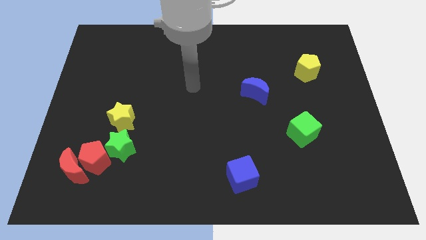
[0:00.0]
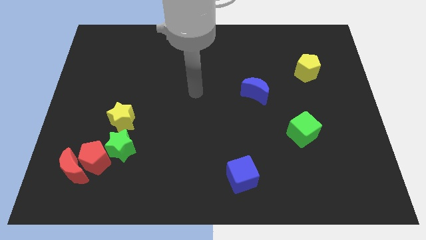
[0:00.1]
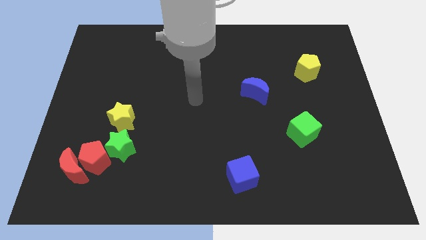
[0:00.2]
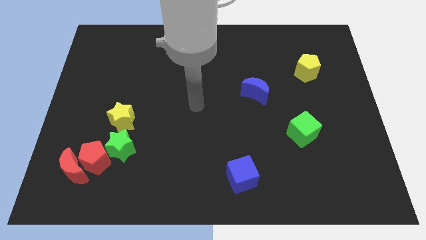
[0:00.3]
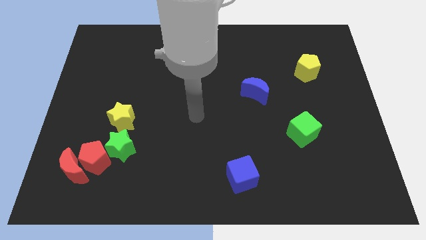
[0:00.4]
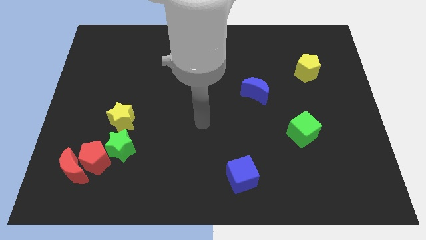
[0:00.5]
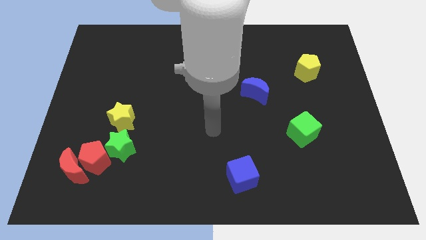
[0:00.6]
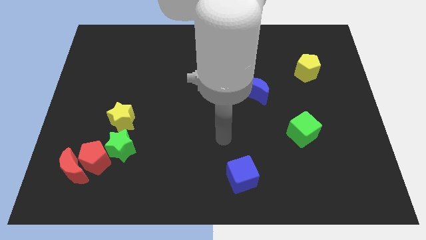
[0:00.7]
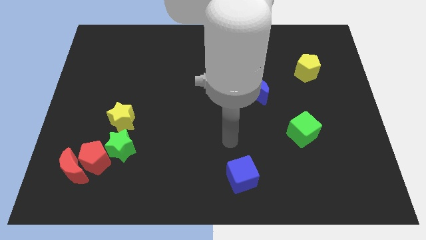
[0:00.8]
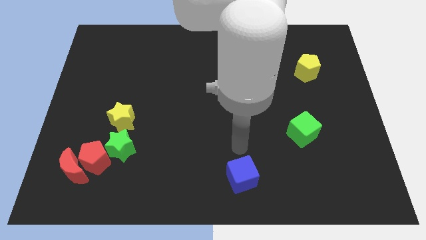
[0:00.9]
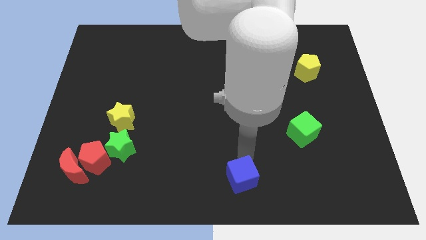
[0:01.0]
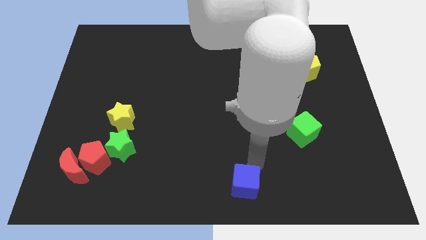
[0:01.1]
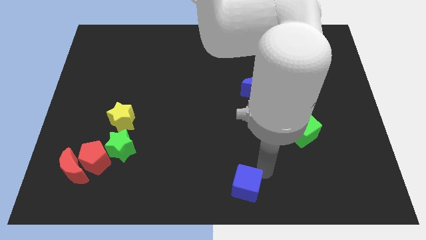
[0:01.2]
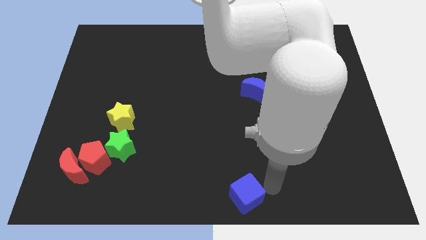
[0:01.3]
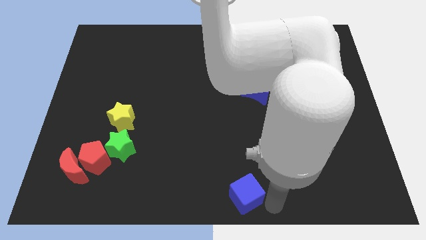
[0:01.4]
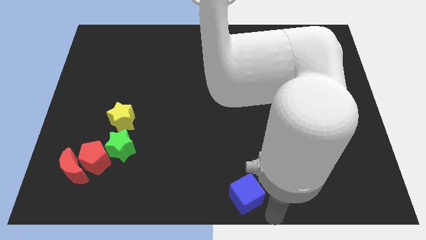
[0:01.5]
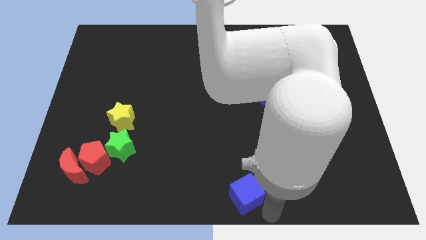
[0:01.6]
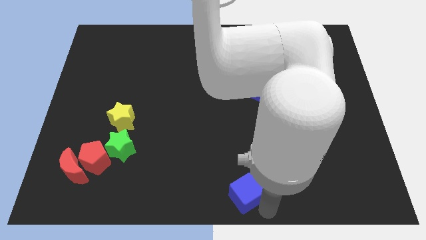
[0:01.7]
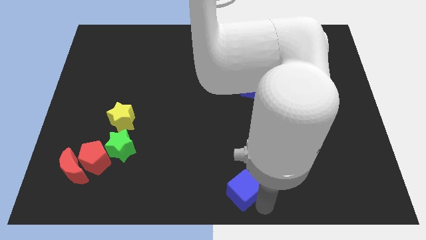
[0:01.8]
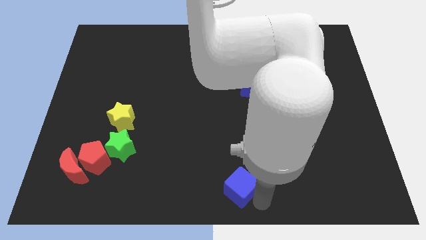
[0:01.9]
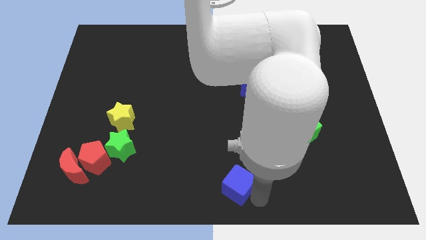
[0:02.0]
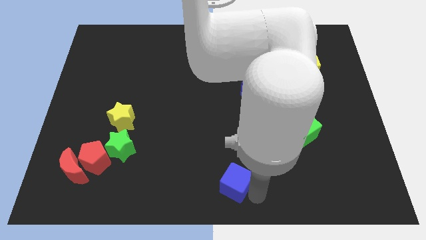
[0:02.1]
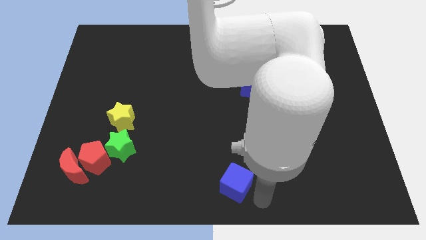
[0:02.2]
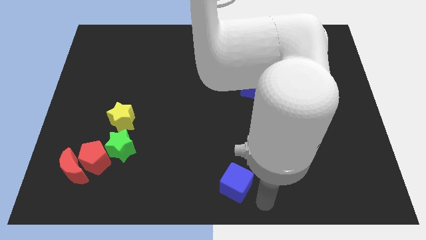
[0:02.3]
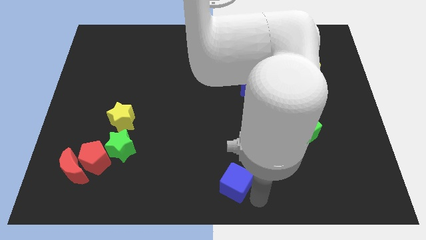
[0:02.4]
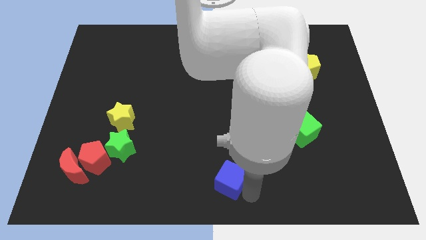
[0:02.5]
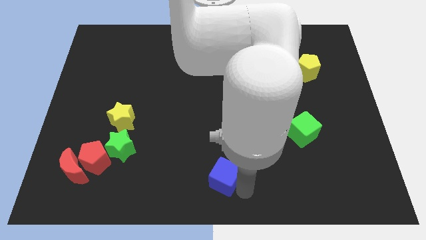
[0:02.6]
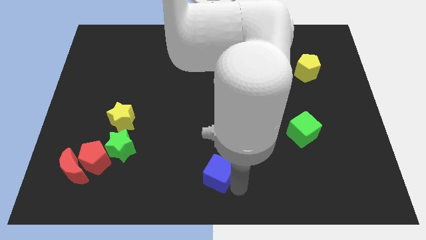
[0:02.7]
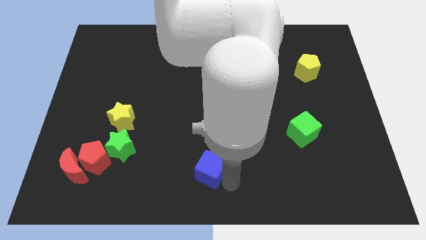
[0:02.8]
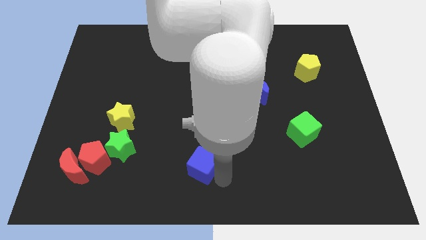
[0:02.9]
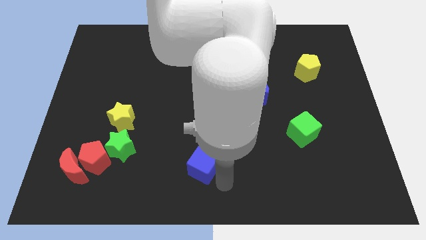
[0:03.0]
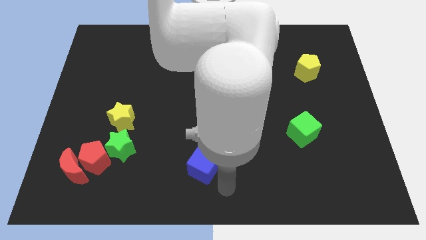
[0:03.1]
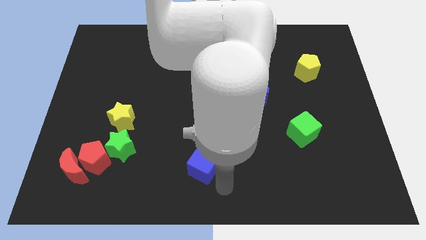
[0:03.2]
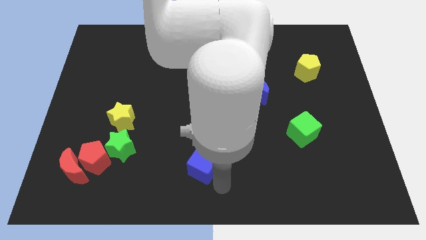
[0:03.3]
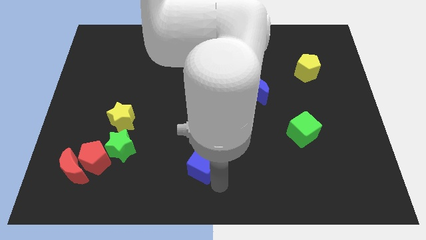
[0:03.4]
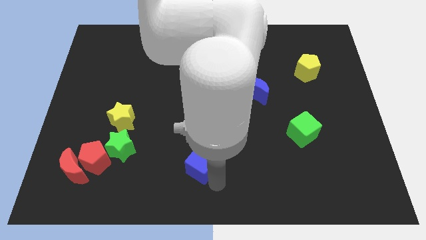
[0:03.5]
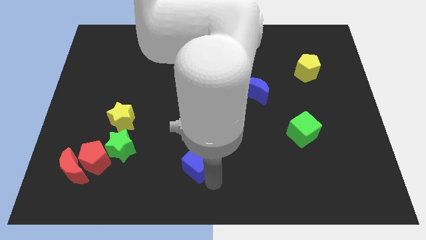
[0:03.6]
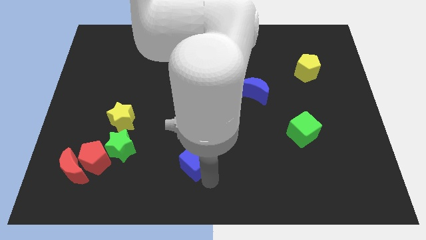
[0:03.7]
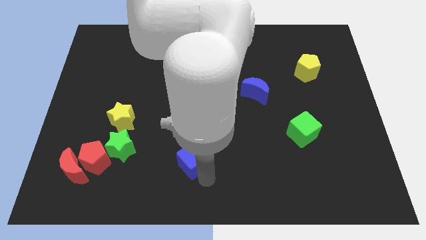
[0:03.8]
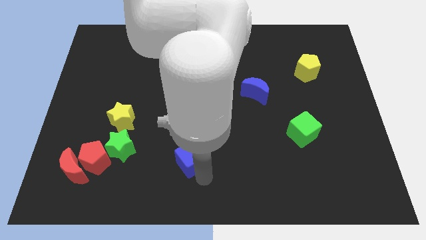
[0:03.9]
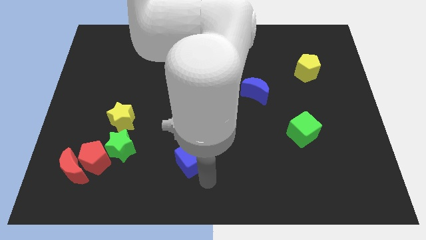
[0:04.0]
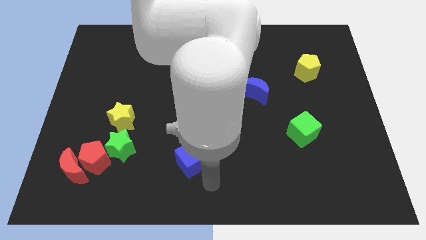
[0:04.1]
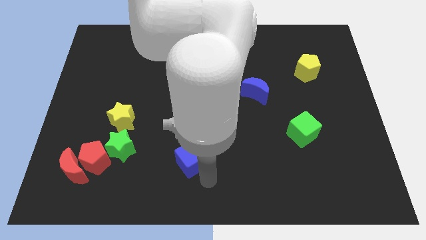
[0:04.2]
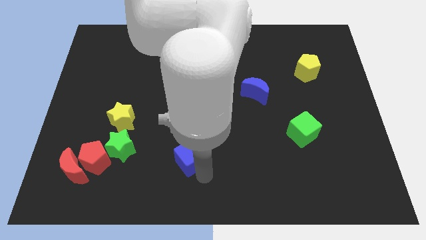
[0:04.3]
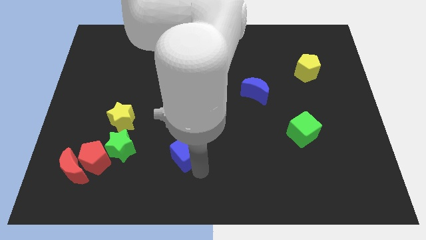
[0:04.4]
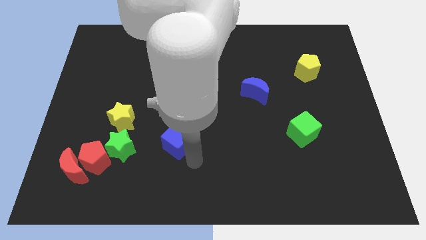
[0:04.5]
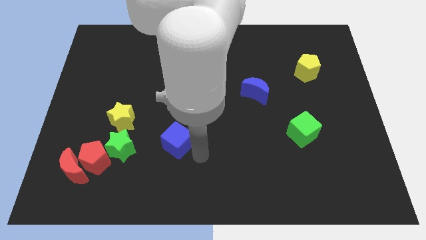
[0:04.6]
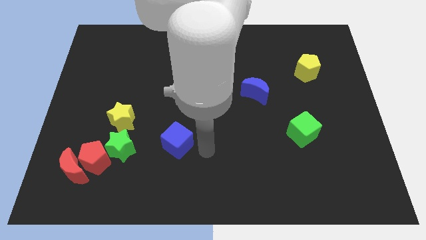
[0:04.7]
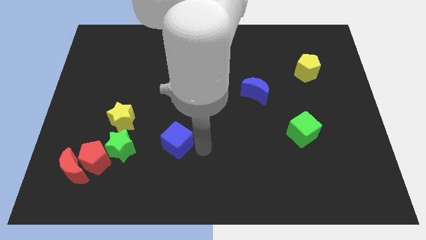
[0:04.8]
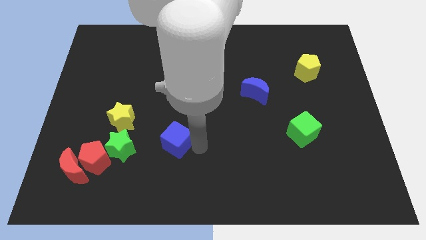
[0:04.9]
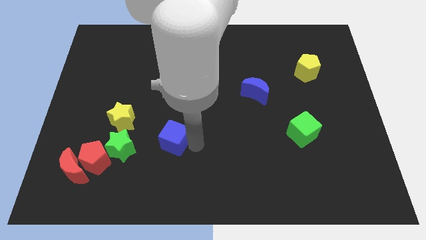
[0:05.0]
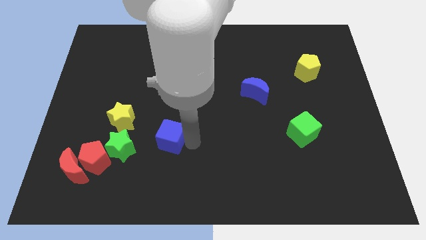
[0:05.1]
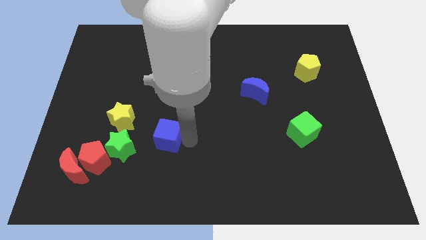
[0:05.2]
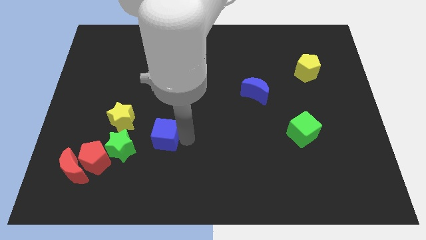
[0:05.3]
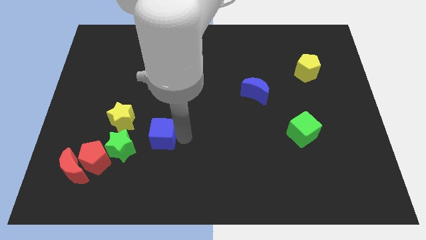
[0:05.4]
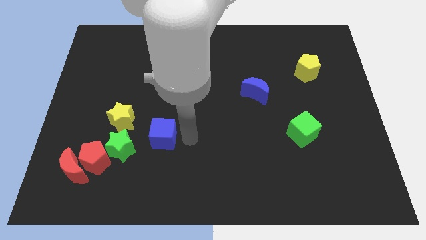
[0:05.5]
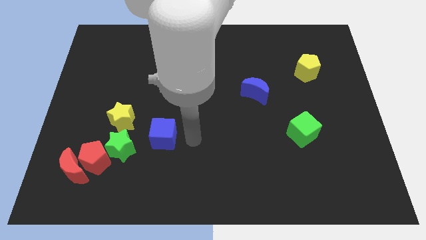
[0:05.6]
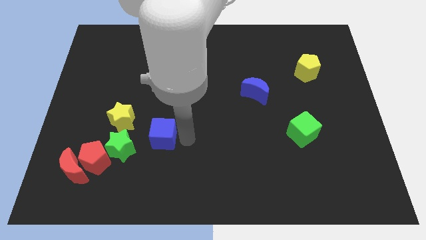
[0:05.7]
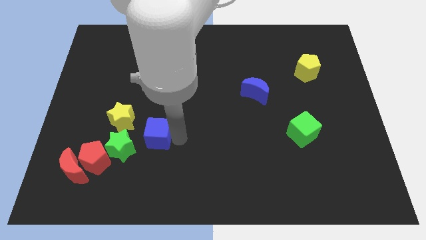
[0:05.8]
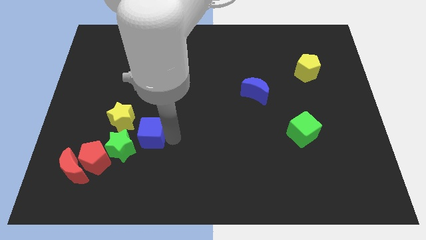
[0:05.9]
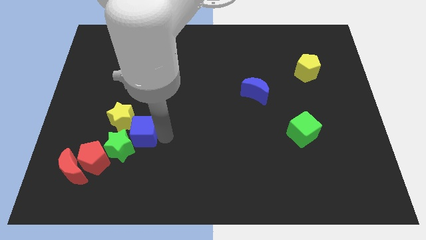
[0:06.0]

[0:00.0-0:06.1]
move the blue cube to the top right side of the red pentagon

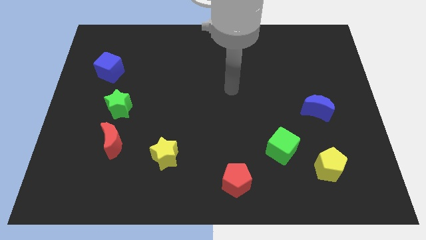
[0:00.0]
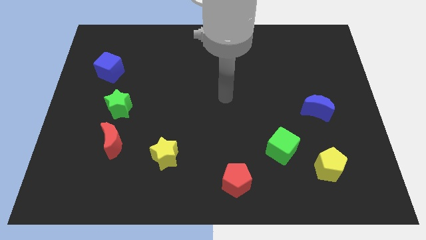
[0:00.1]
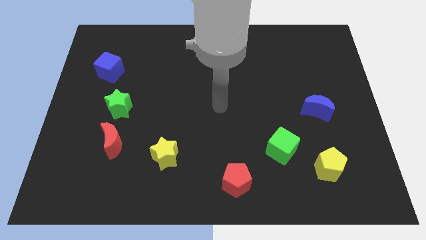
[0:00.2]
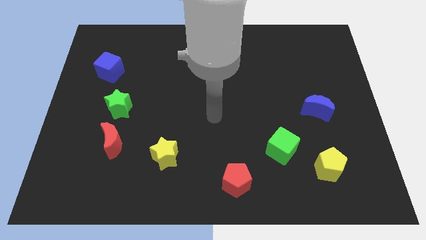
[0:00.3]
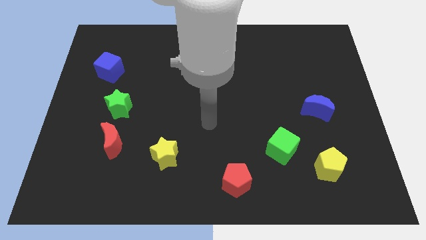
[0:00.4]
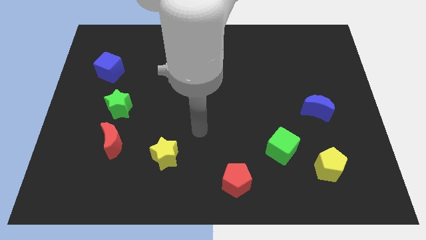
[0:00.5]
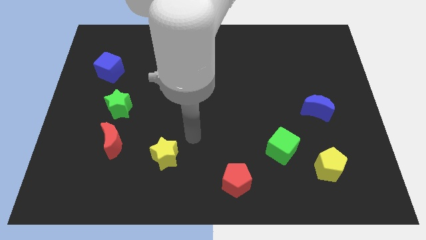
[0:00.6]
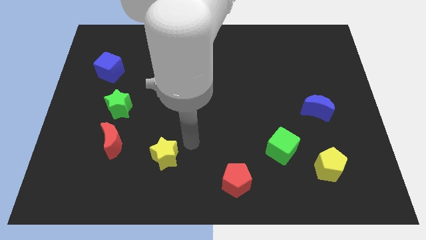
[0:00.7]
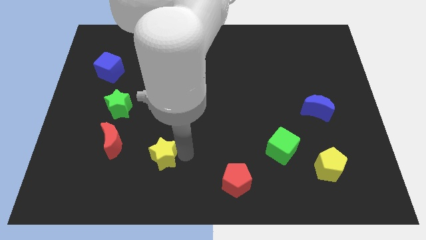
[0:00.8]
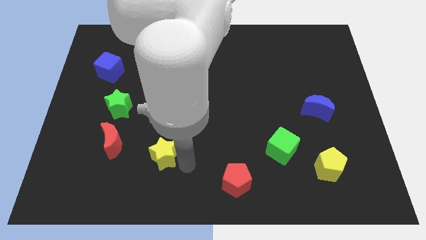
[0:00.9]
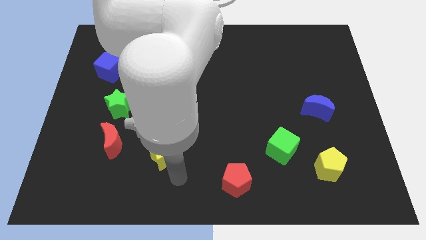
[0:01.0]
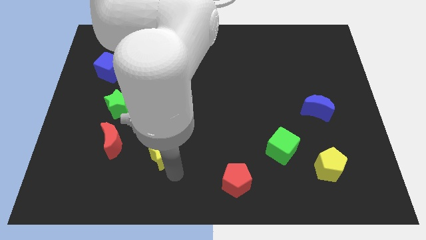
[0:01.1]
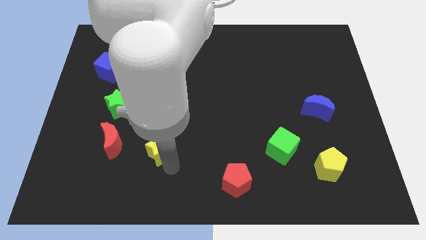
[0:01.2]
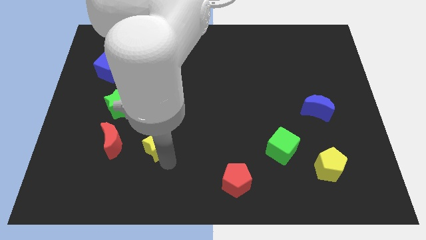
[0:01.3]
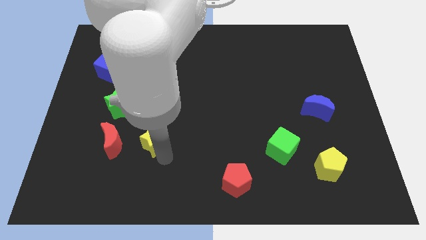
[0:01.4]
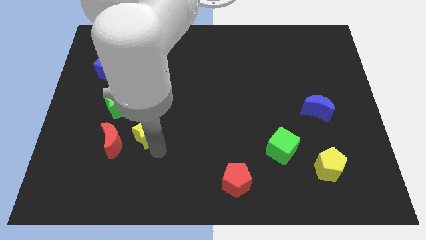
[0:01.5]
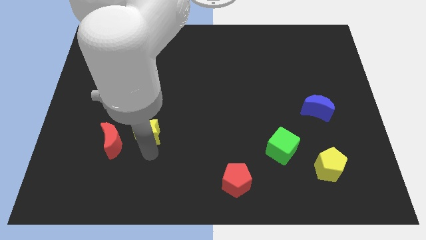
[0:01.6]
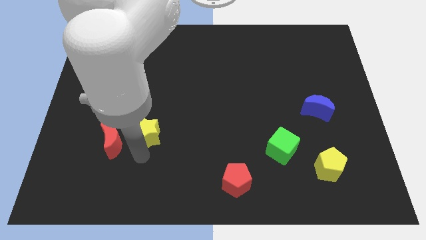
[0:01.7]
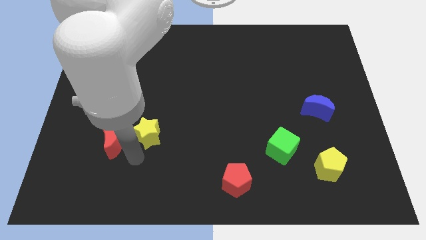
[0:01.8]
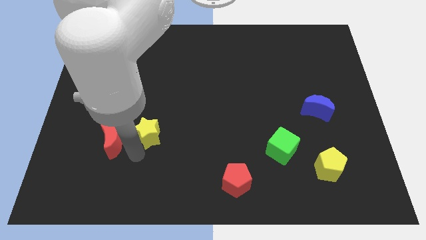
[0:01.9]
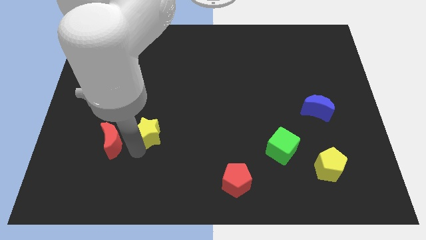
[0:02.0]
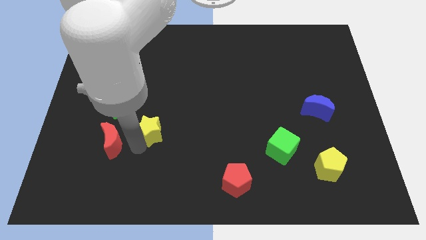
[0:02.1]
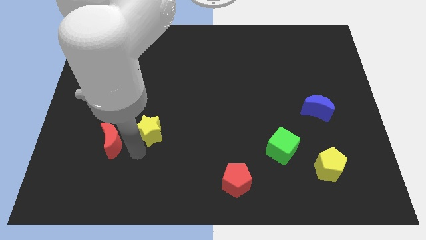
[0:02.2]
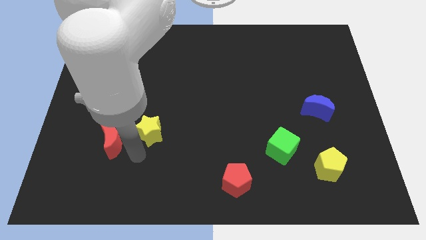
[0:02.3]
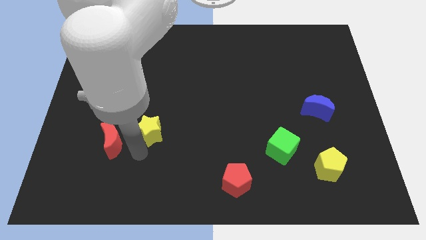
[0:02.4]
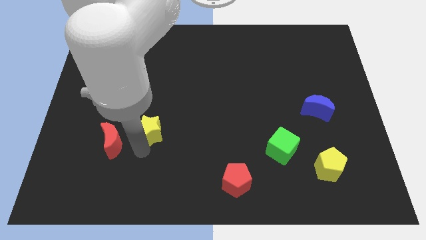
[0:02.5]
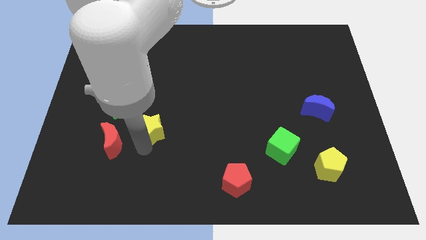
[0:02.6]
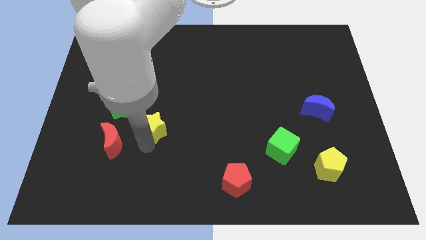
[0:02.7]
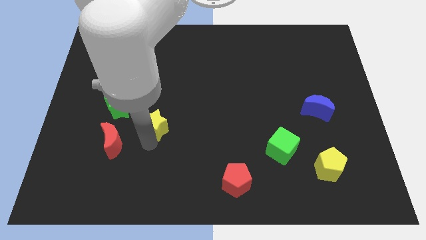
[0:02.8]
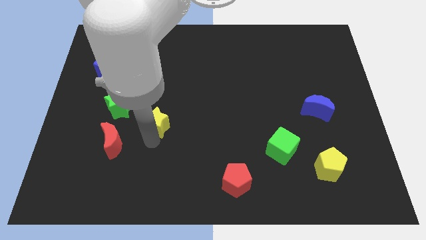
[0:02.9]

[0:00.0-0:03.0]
move the yellow star right of the green star
